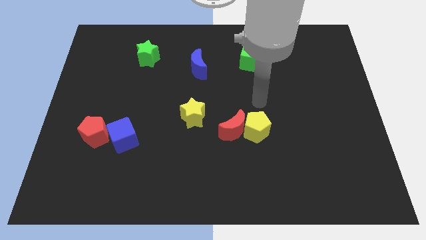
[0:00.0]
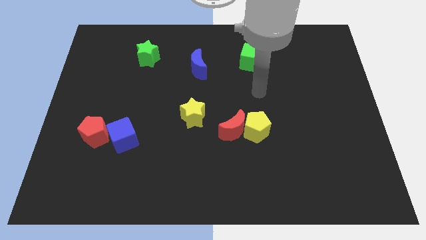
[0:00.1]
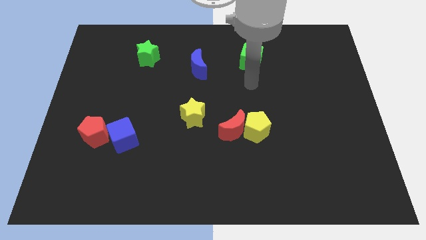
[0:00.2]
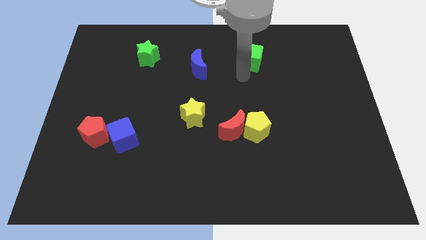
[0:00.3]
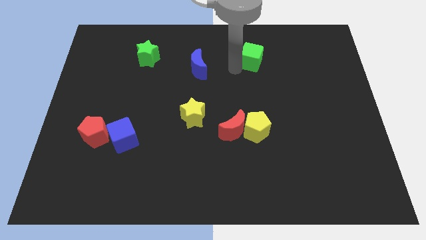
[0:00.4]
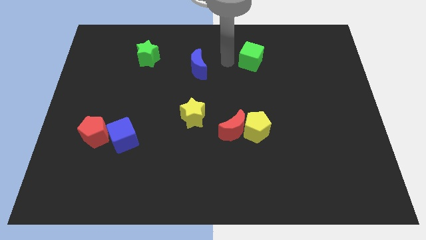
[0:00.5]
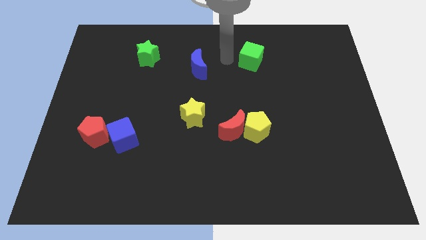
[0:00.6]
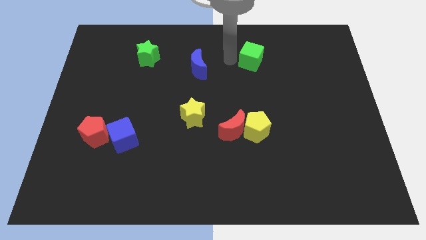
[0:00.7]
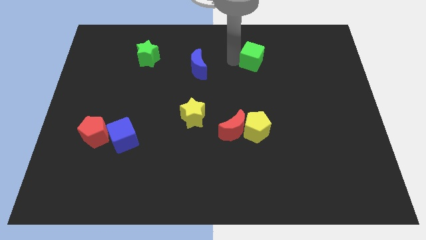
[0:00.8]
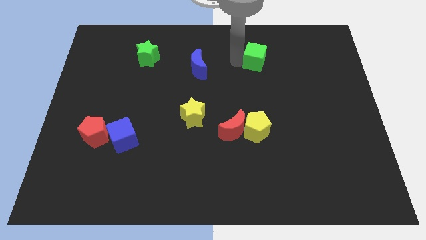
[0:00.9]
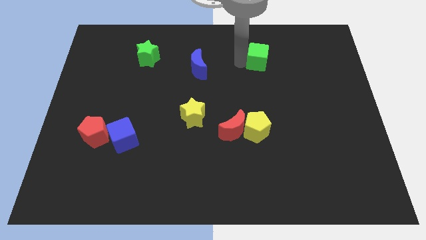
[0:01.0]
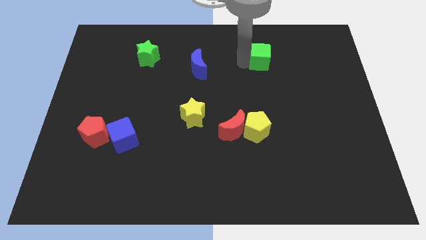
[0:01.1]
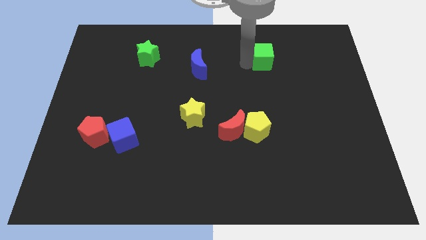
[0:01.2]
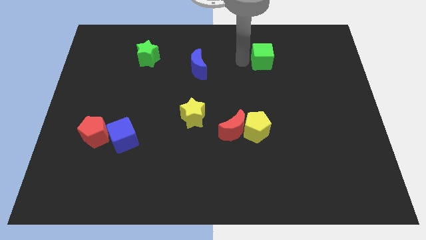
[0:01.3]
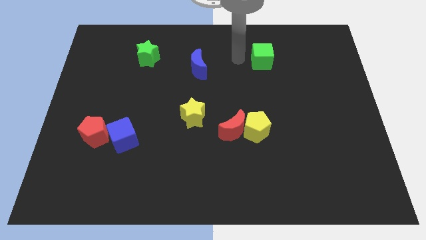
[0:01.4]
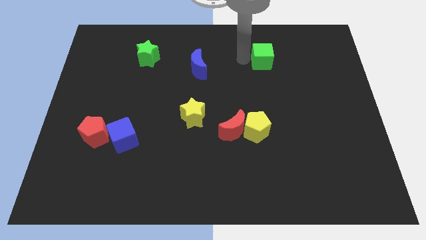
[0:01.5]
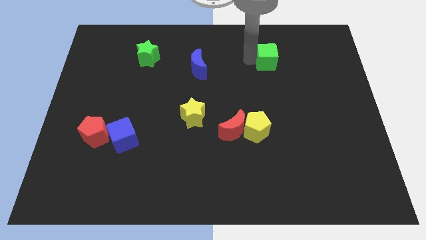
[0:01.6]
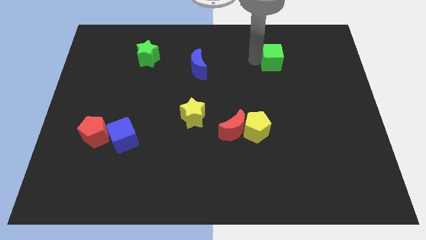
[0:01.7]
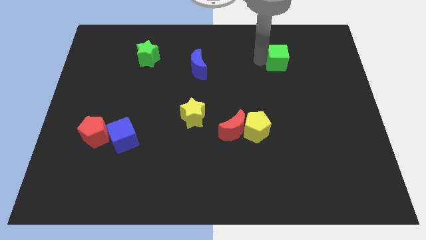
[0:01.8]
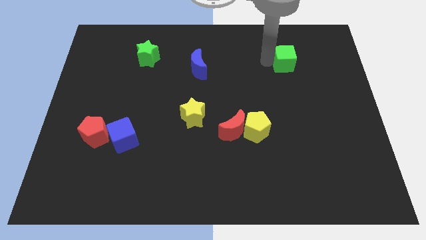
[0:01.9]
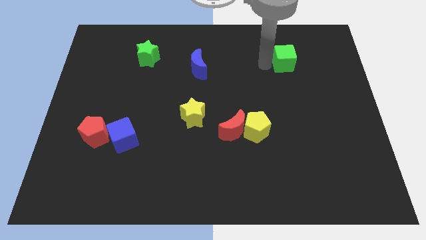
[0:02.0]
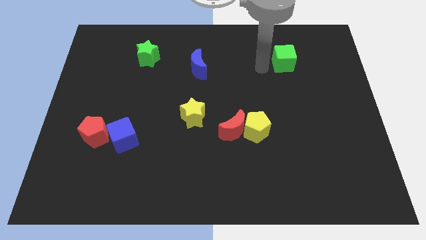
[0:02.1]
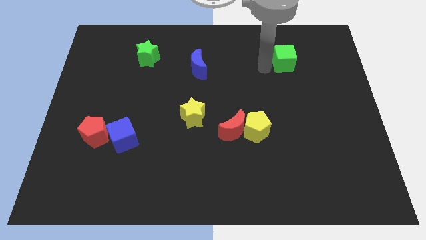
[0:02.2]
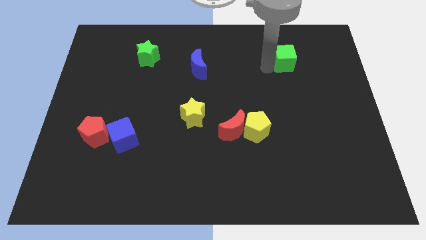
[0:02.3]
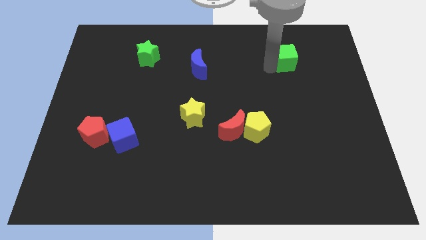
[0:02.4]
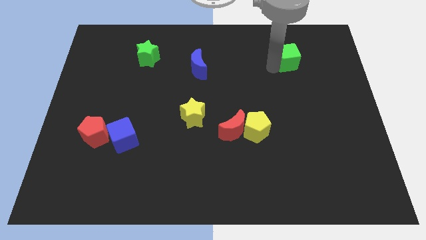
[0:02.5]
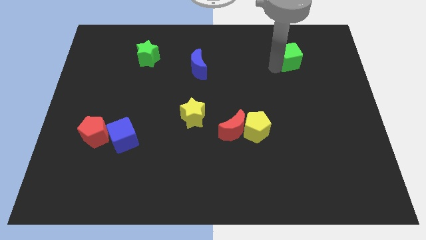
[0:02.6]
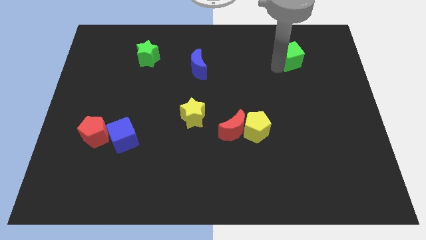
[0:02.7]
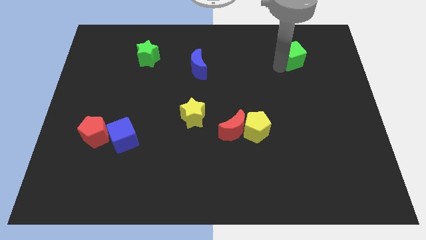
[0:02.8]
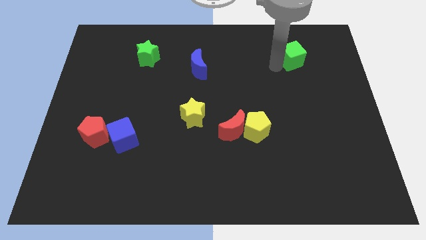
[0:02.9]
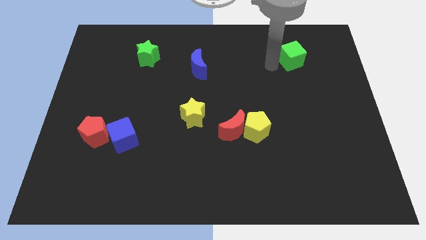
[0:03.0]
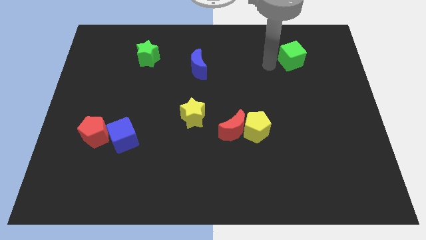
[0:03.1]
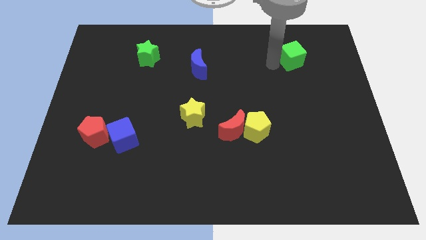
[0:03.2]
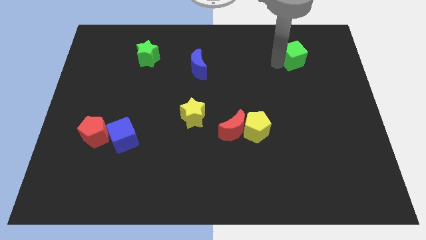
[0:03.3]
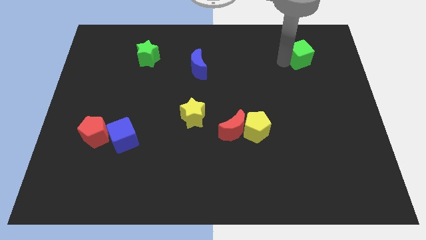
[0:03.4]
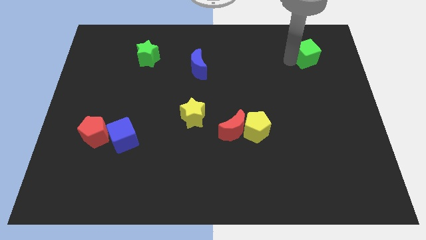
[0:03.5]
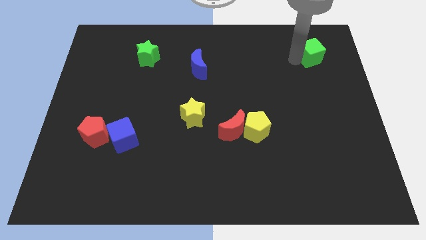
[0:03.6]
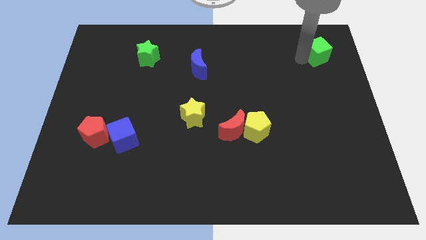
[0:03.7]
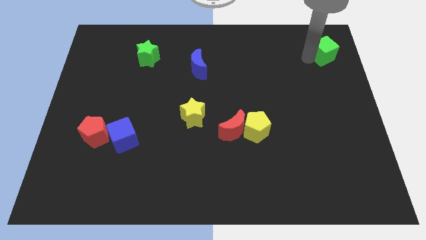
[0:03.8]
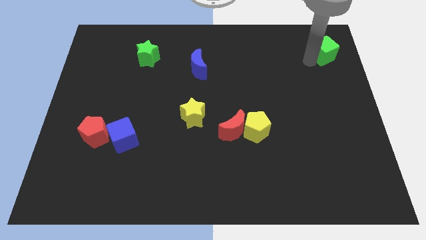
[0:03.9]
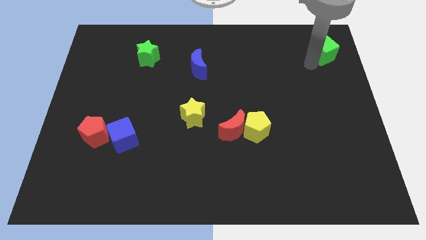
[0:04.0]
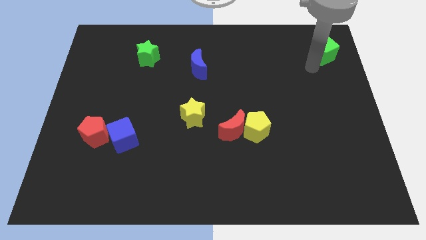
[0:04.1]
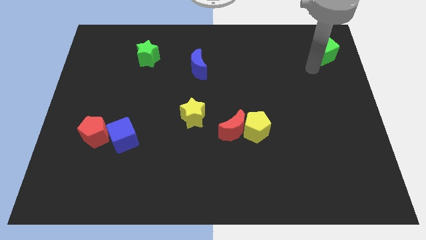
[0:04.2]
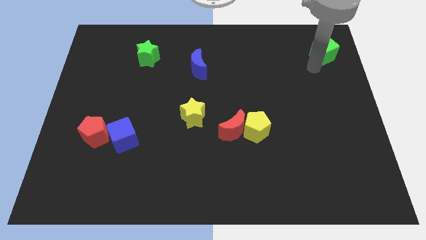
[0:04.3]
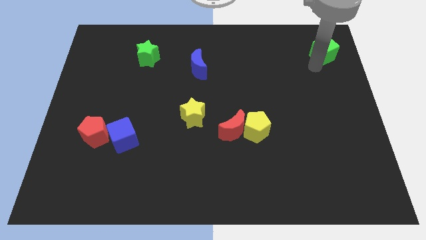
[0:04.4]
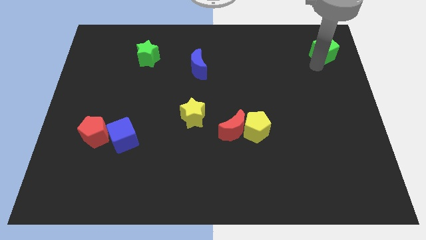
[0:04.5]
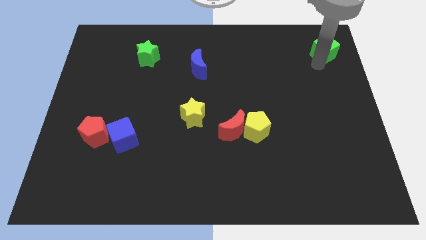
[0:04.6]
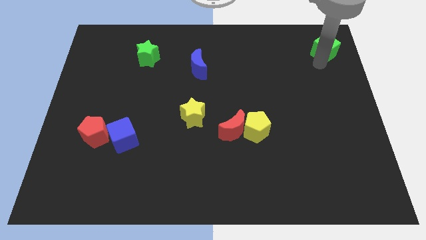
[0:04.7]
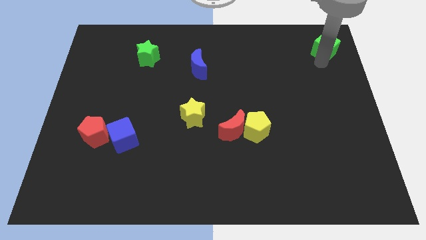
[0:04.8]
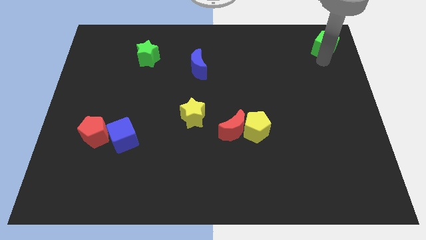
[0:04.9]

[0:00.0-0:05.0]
push the green cube to the top right
